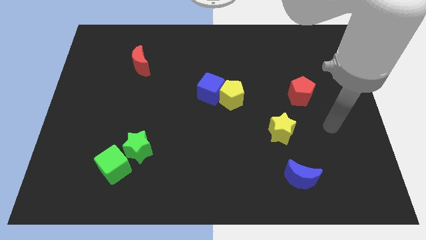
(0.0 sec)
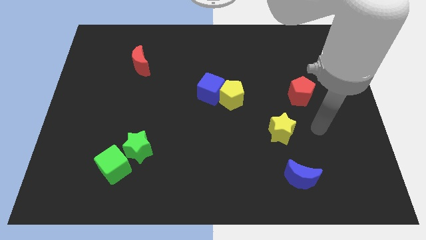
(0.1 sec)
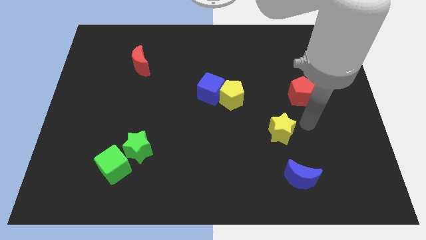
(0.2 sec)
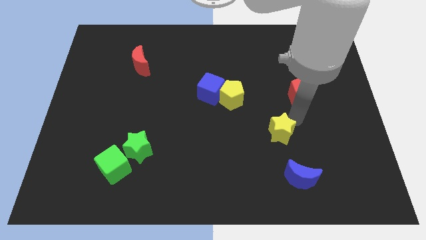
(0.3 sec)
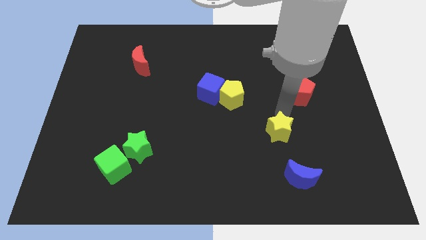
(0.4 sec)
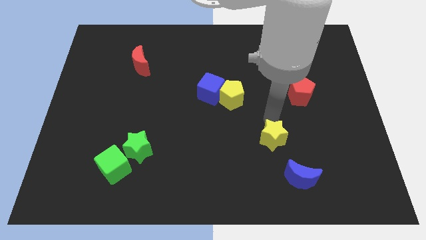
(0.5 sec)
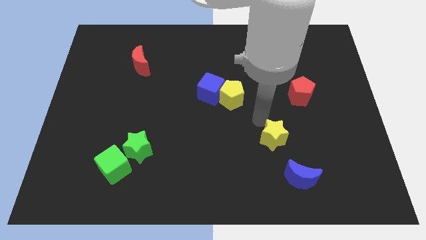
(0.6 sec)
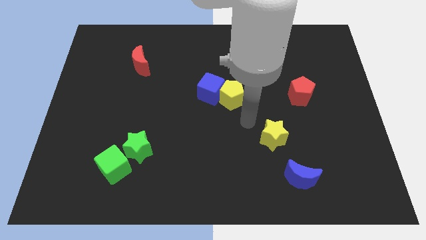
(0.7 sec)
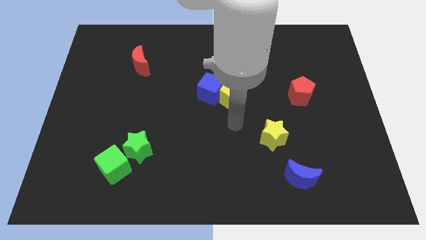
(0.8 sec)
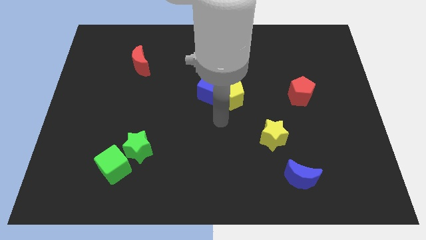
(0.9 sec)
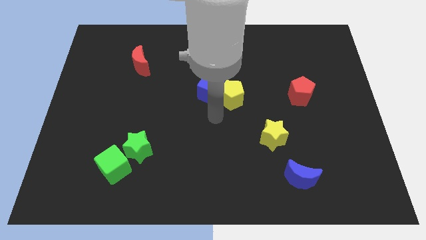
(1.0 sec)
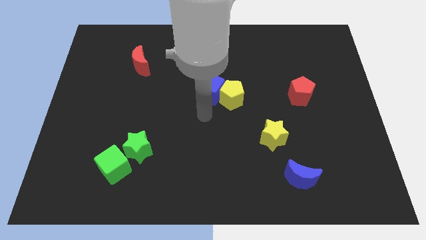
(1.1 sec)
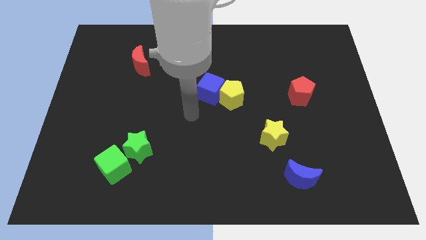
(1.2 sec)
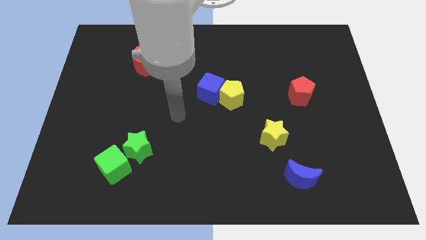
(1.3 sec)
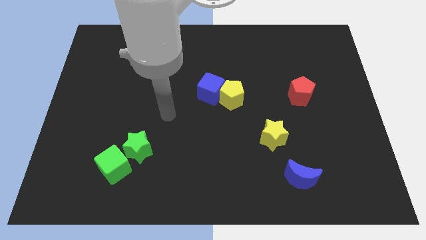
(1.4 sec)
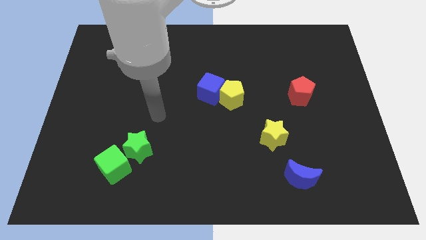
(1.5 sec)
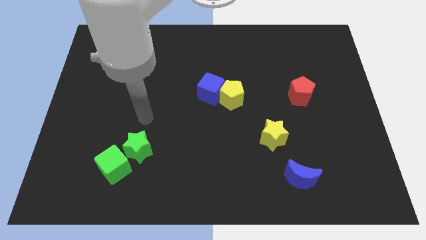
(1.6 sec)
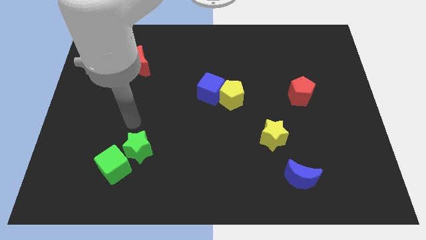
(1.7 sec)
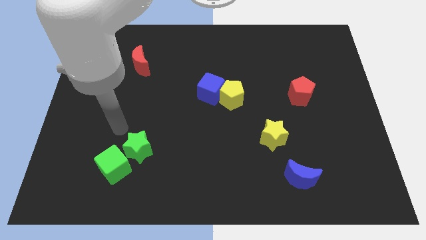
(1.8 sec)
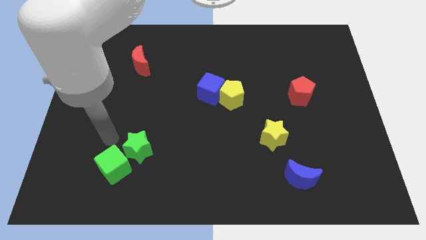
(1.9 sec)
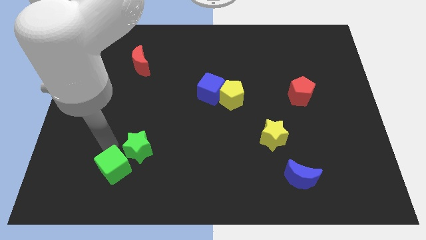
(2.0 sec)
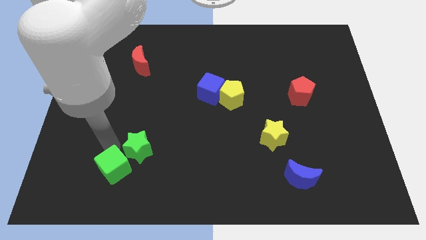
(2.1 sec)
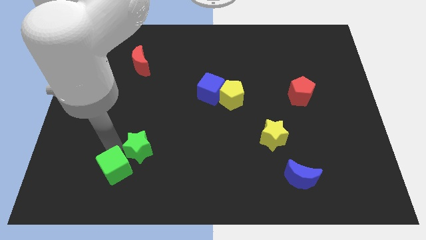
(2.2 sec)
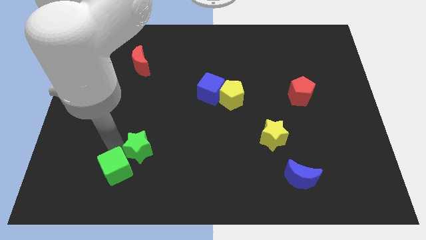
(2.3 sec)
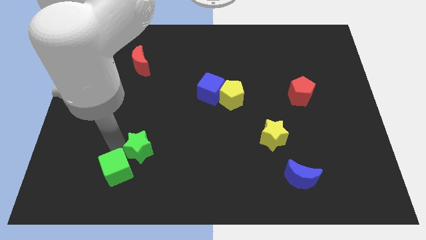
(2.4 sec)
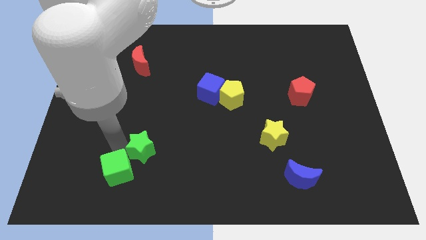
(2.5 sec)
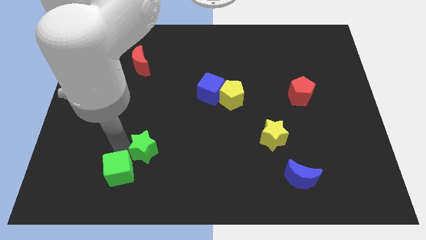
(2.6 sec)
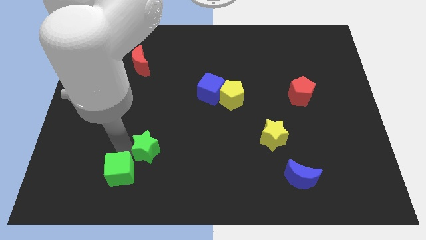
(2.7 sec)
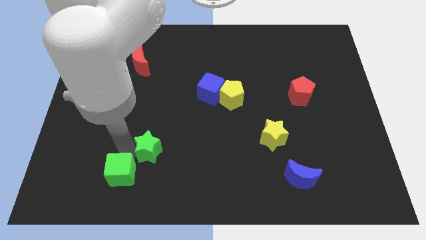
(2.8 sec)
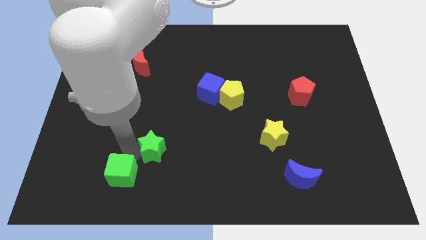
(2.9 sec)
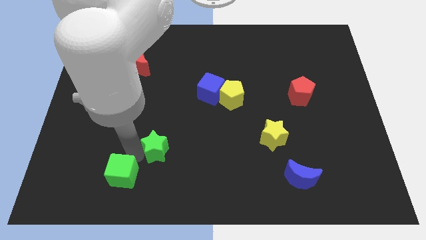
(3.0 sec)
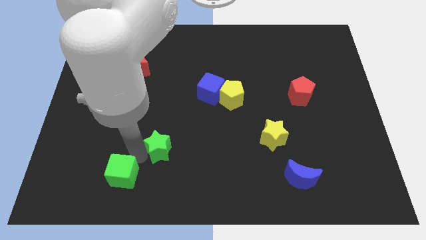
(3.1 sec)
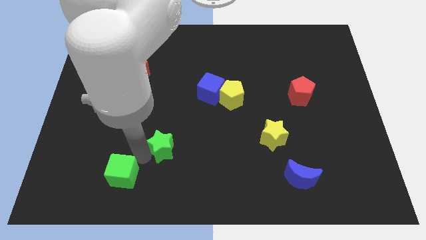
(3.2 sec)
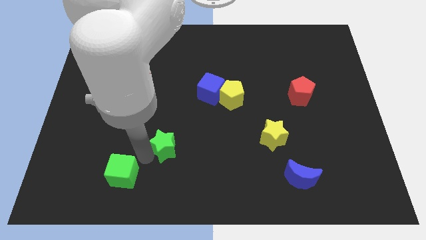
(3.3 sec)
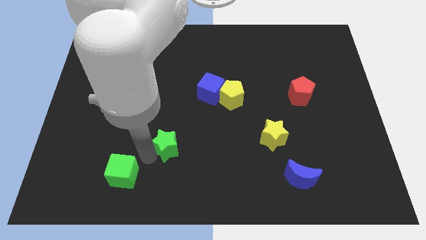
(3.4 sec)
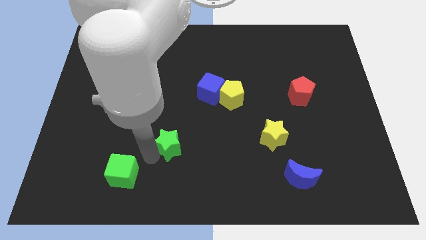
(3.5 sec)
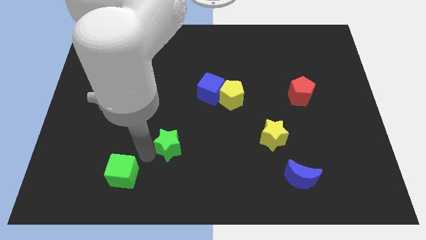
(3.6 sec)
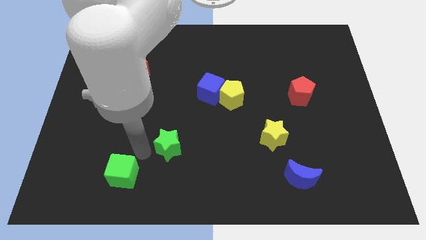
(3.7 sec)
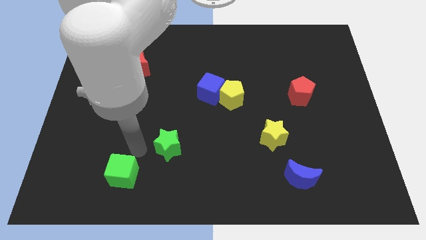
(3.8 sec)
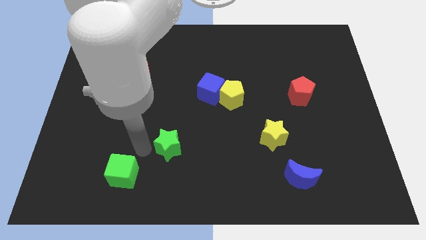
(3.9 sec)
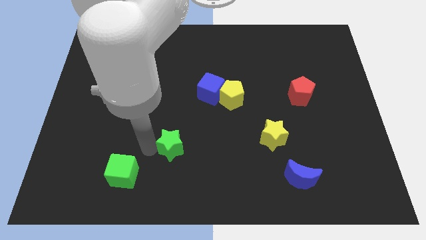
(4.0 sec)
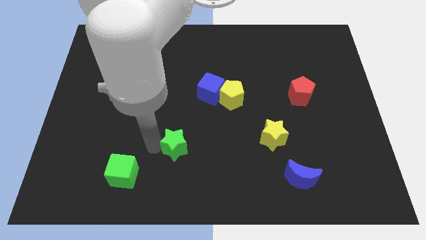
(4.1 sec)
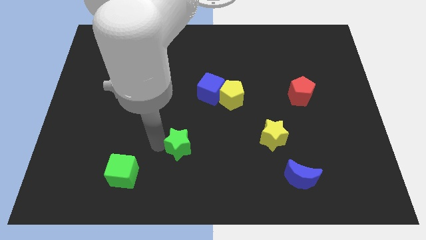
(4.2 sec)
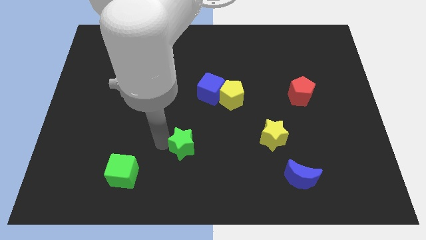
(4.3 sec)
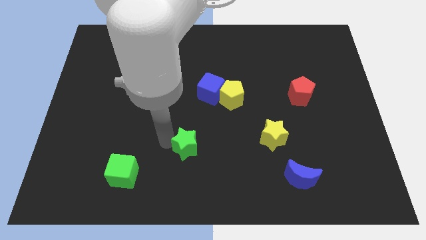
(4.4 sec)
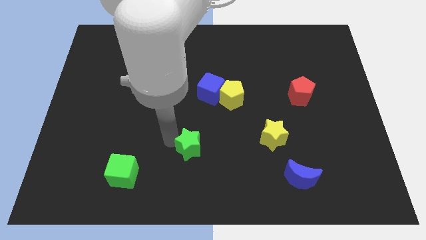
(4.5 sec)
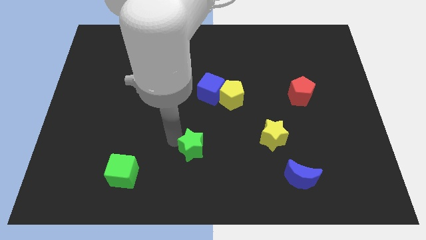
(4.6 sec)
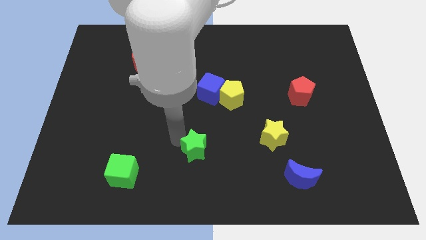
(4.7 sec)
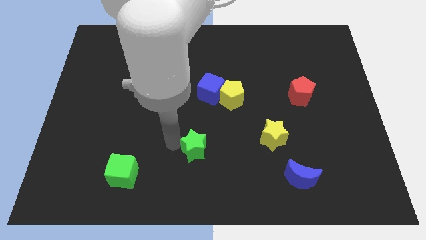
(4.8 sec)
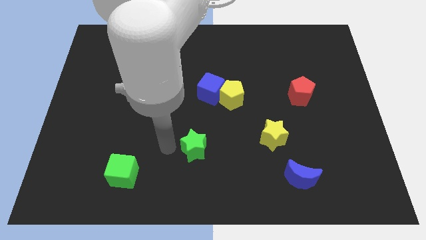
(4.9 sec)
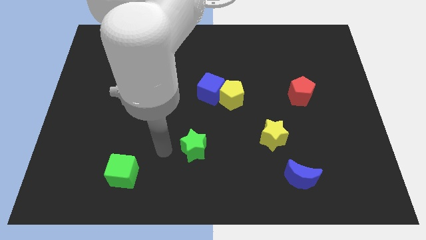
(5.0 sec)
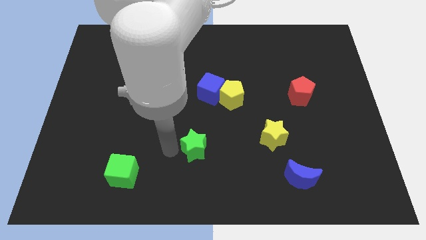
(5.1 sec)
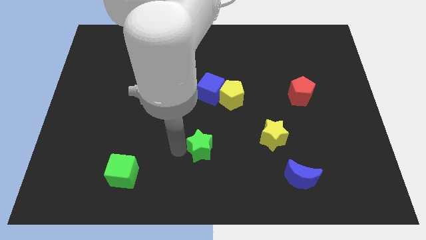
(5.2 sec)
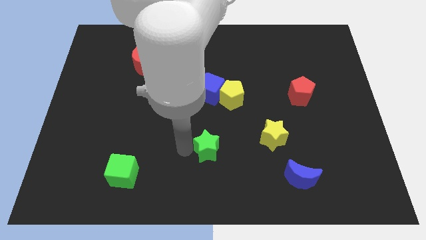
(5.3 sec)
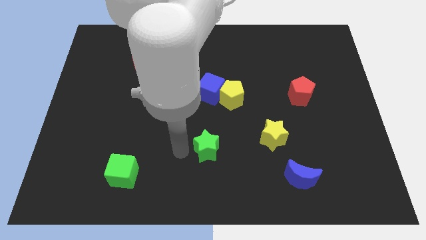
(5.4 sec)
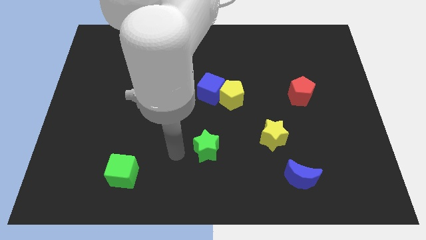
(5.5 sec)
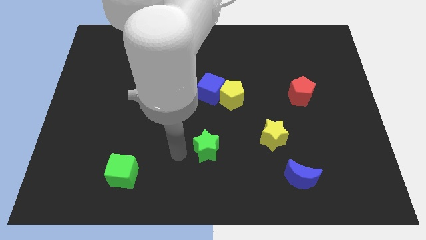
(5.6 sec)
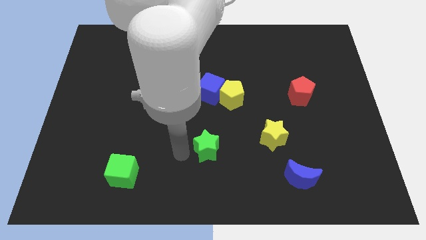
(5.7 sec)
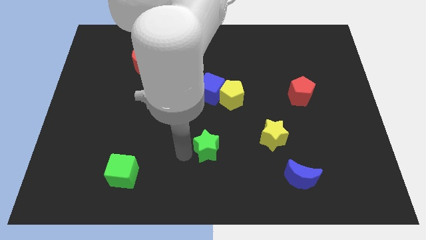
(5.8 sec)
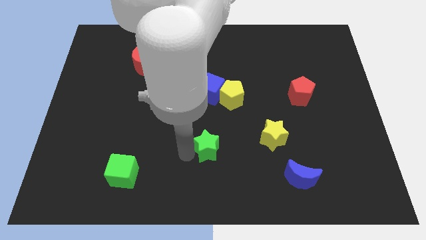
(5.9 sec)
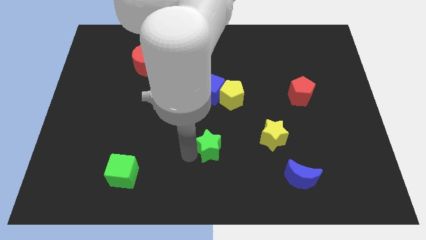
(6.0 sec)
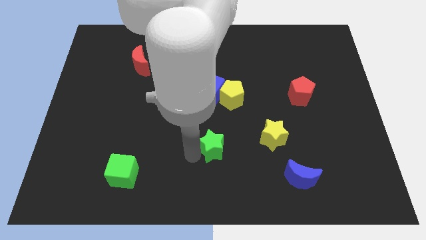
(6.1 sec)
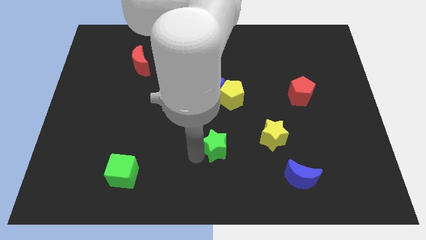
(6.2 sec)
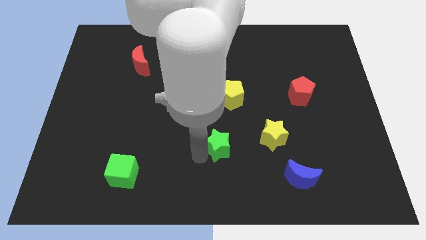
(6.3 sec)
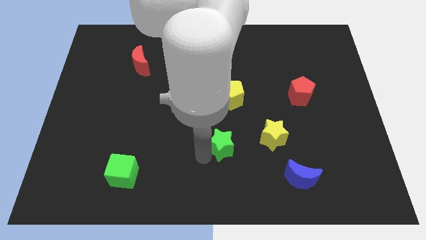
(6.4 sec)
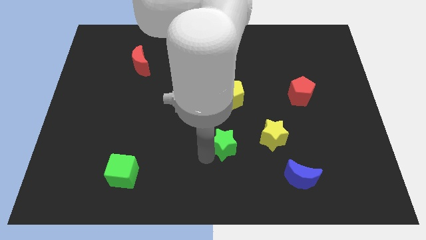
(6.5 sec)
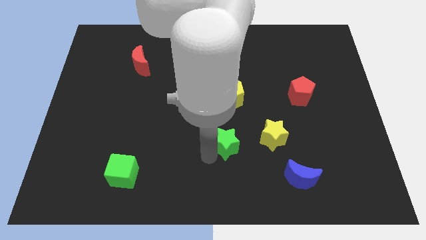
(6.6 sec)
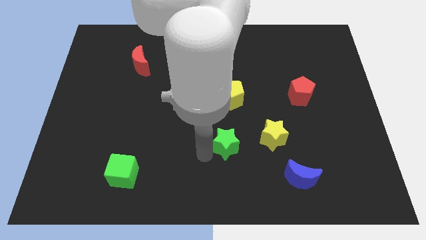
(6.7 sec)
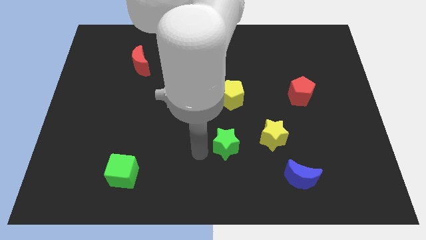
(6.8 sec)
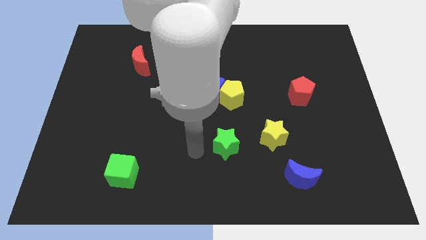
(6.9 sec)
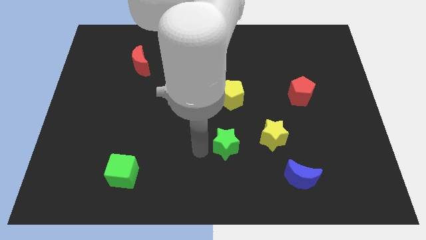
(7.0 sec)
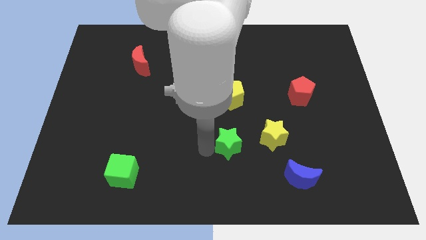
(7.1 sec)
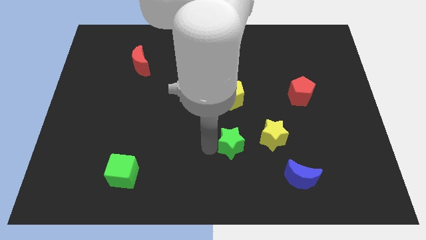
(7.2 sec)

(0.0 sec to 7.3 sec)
push the green star right

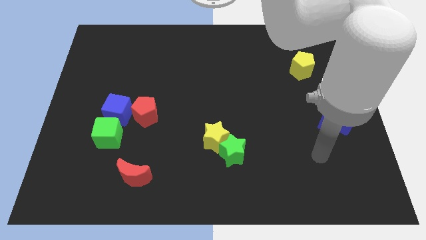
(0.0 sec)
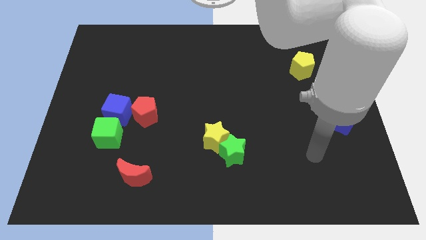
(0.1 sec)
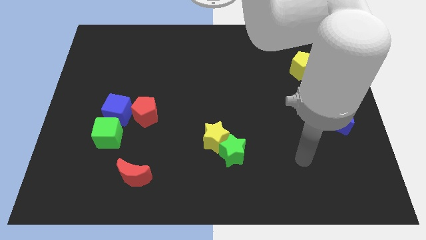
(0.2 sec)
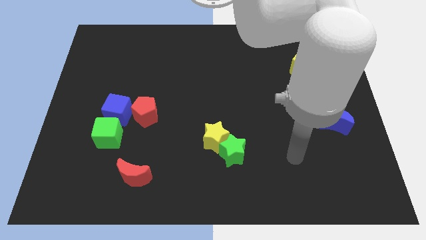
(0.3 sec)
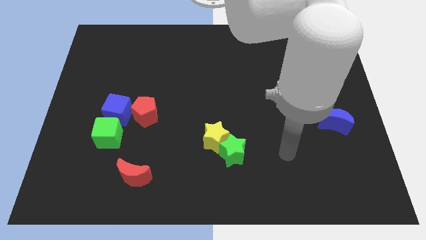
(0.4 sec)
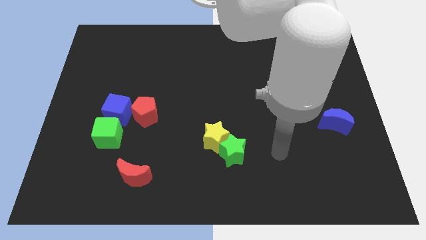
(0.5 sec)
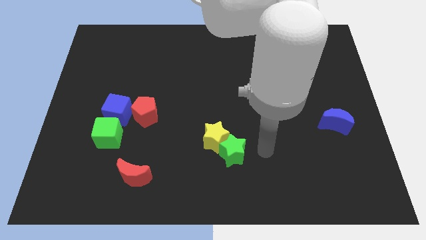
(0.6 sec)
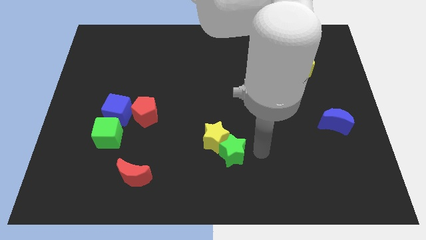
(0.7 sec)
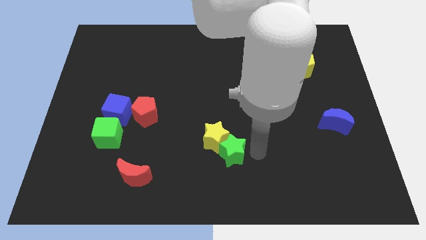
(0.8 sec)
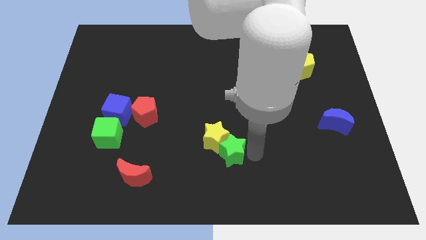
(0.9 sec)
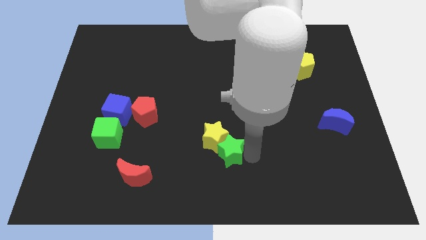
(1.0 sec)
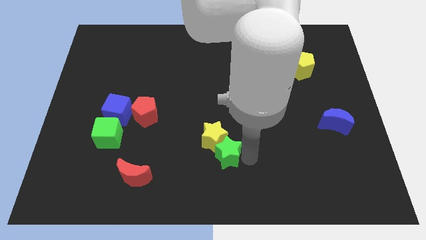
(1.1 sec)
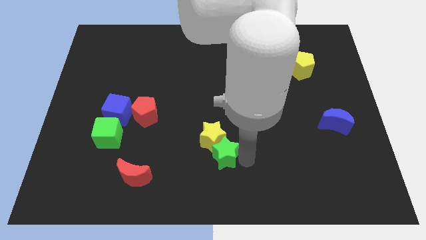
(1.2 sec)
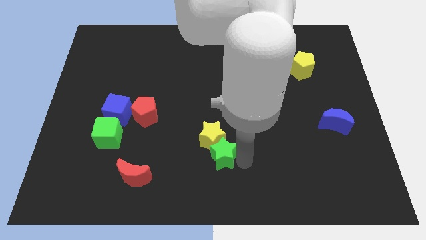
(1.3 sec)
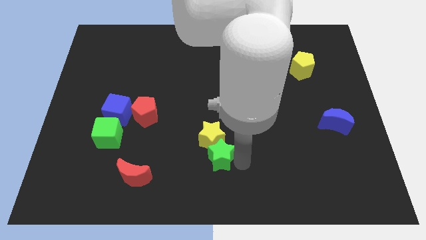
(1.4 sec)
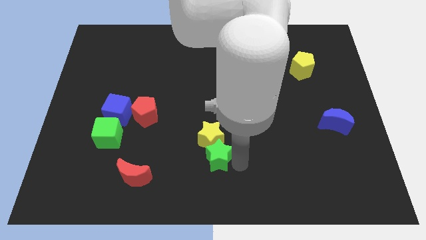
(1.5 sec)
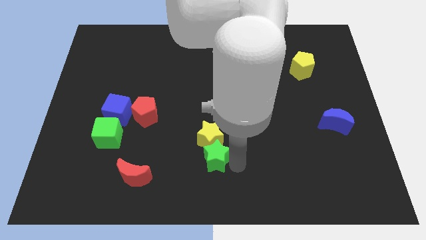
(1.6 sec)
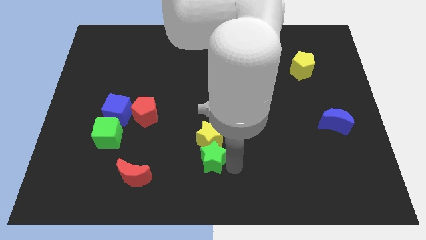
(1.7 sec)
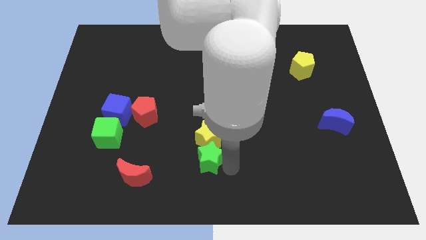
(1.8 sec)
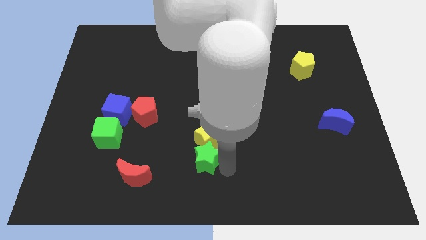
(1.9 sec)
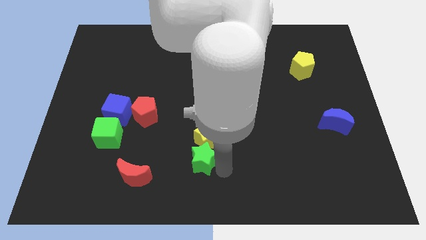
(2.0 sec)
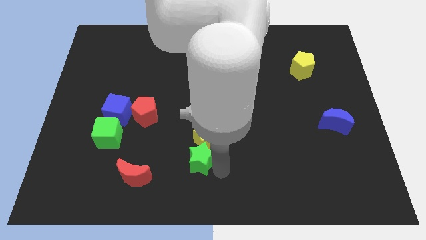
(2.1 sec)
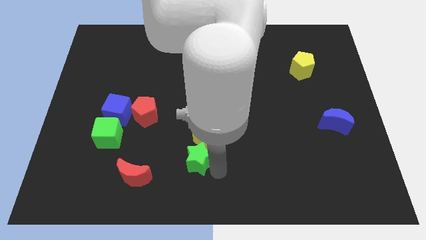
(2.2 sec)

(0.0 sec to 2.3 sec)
slide the green star left a little bit
